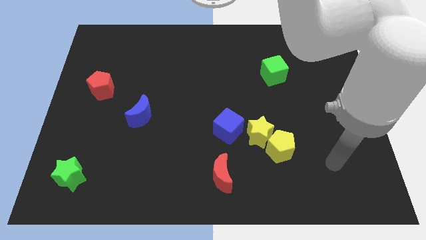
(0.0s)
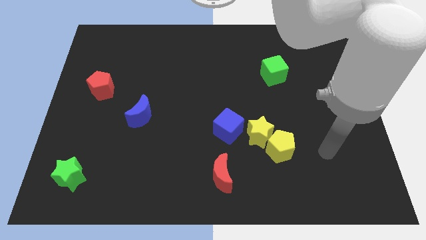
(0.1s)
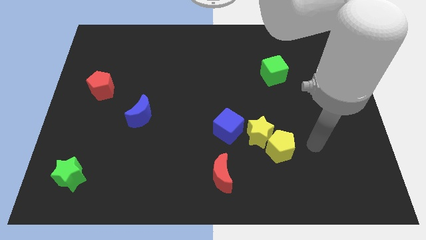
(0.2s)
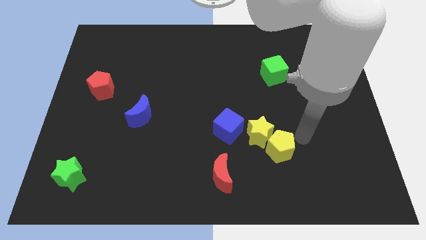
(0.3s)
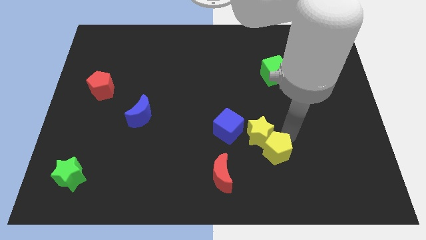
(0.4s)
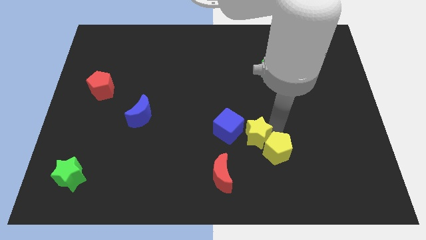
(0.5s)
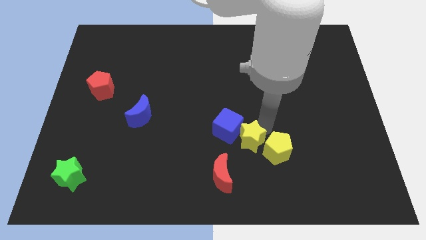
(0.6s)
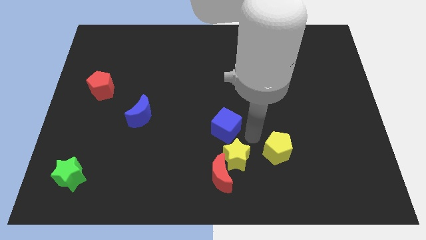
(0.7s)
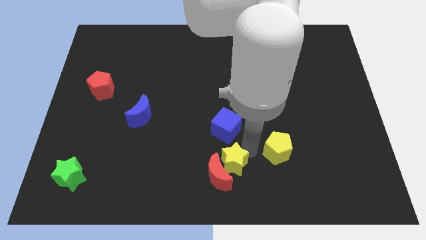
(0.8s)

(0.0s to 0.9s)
move the yellow pentagon away from the yellow star

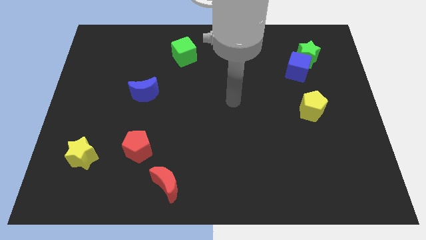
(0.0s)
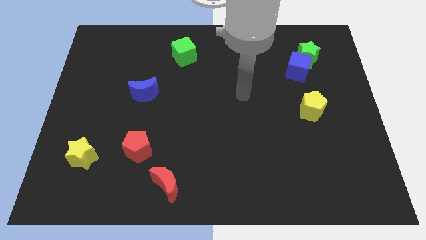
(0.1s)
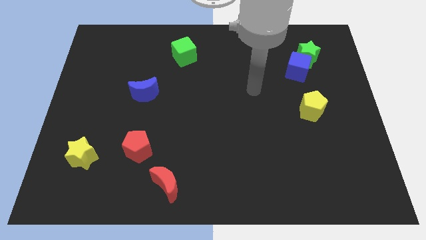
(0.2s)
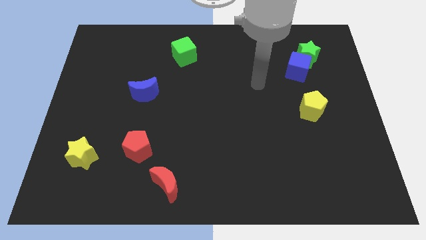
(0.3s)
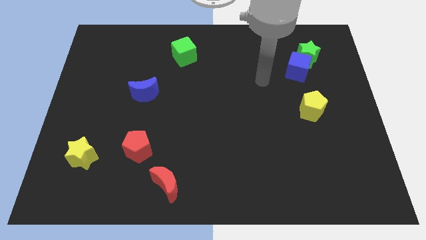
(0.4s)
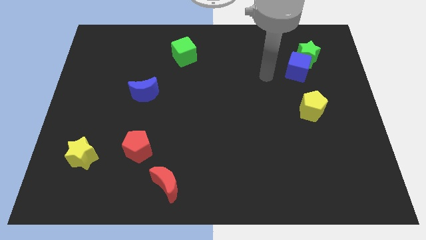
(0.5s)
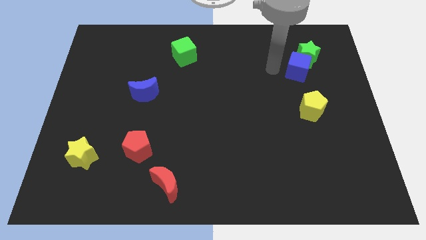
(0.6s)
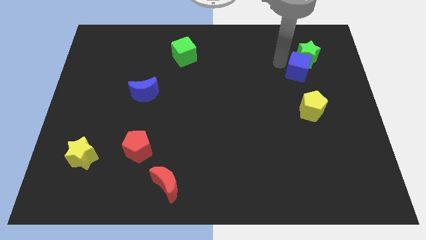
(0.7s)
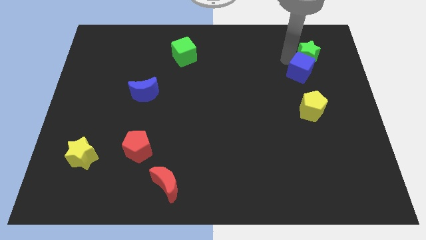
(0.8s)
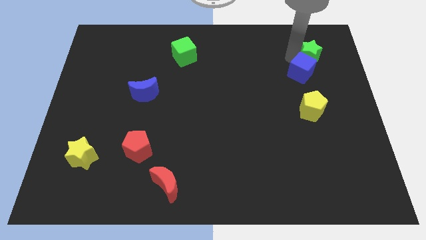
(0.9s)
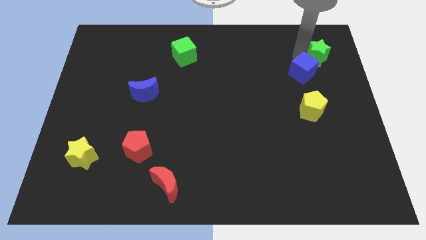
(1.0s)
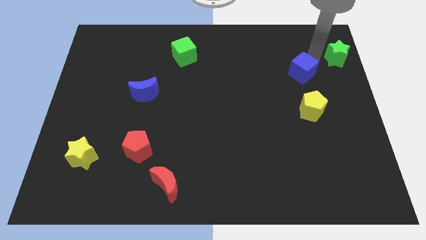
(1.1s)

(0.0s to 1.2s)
pull the blue cube apart from the green star

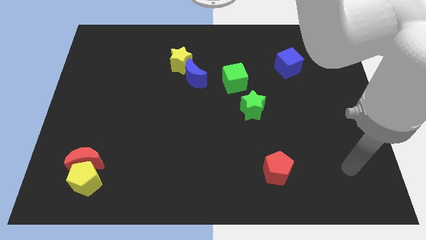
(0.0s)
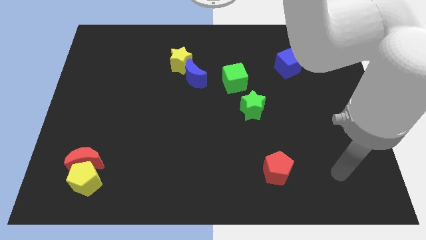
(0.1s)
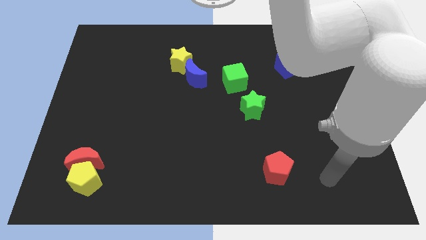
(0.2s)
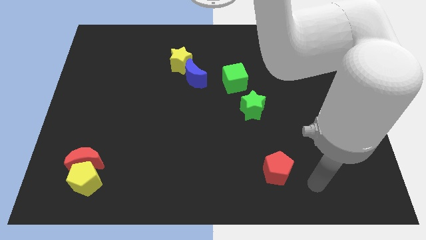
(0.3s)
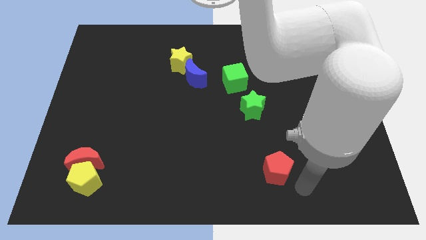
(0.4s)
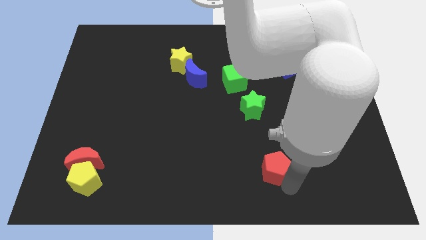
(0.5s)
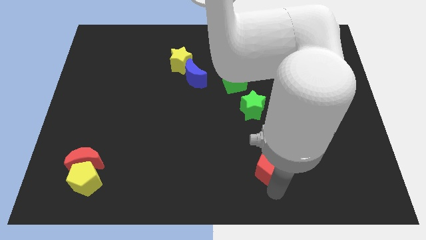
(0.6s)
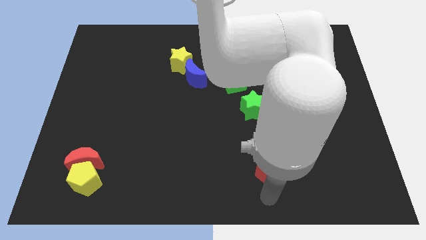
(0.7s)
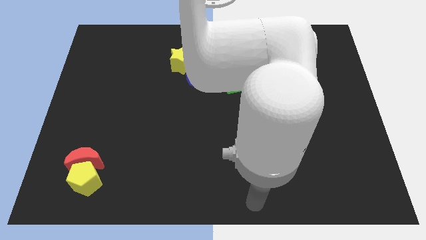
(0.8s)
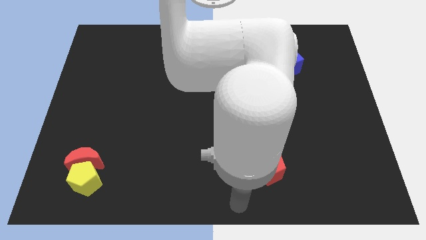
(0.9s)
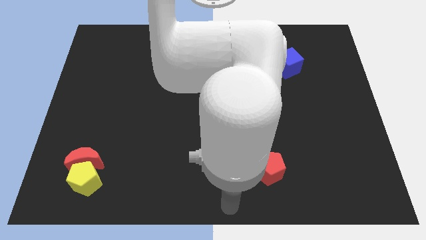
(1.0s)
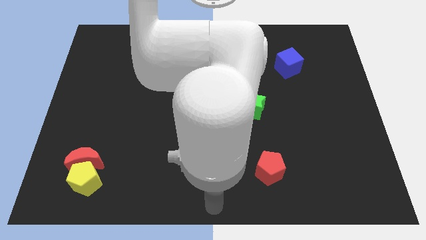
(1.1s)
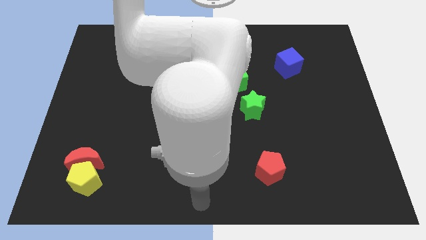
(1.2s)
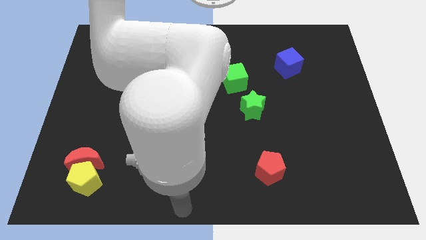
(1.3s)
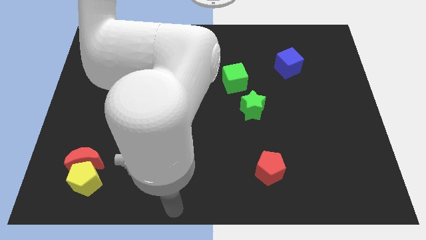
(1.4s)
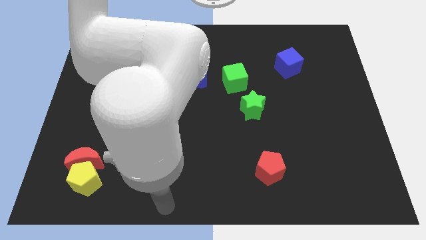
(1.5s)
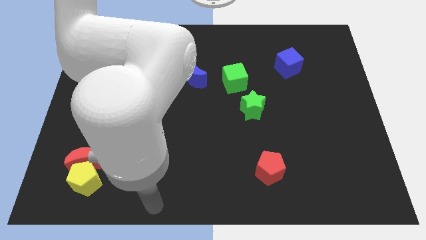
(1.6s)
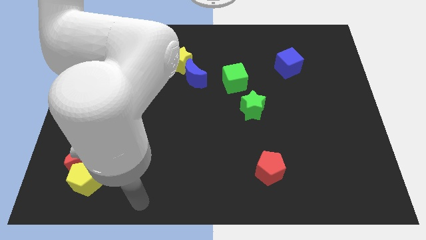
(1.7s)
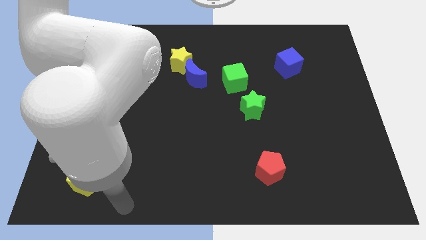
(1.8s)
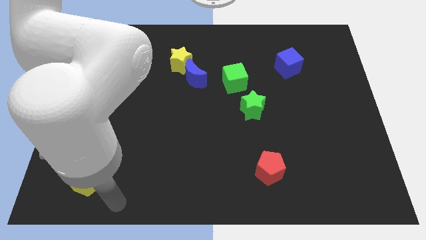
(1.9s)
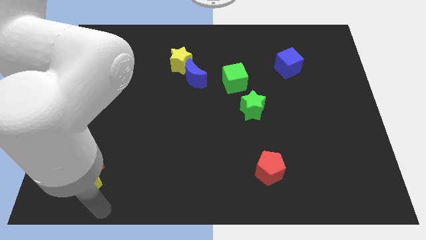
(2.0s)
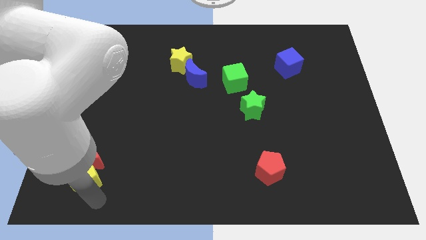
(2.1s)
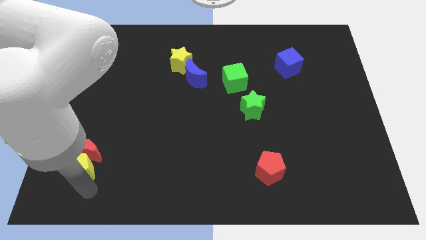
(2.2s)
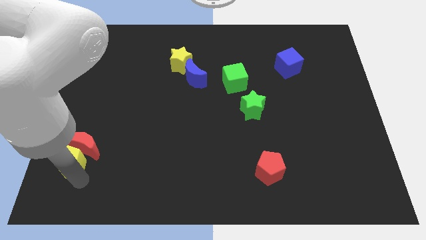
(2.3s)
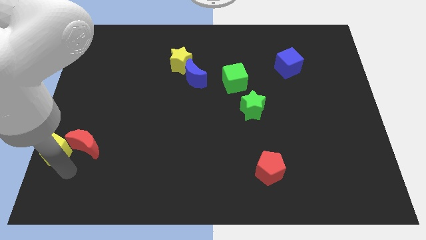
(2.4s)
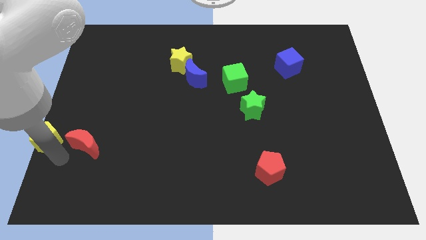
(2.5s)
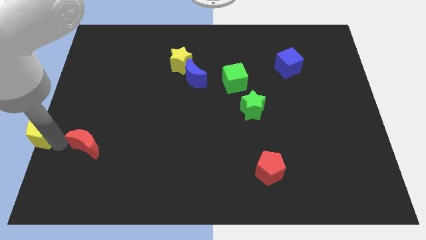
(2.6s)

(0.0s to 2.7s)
pull the red moon apart from the yellow pentagon

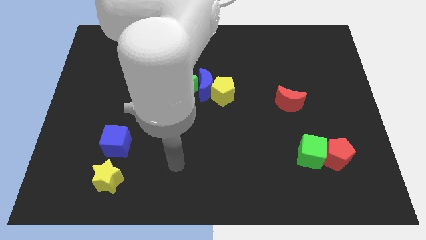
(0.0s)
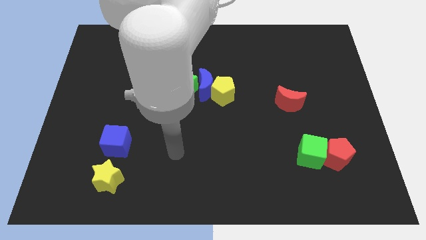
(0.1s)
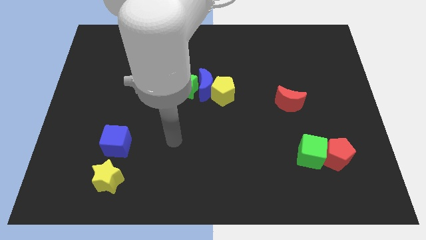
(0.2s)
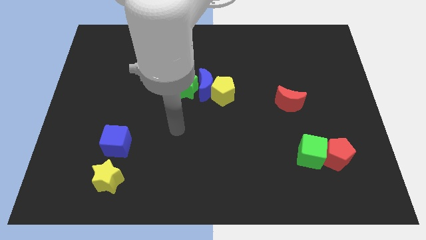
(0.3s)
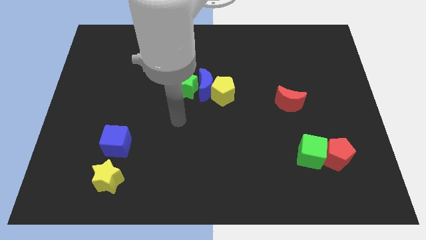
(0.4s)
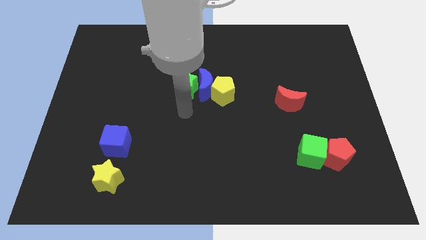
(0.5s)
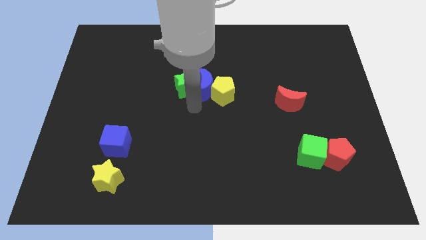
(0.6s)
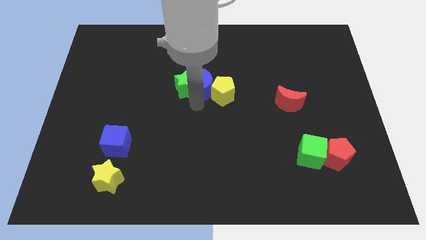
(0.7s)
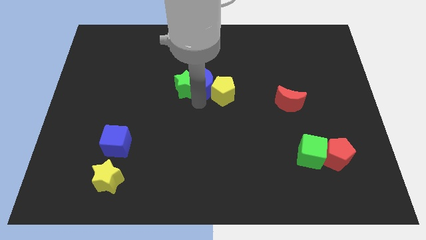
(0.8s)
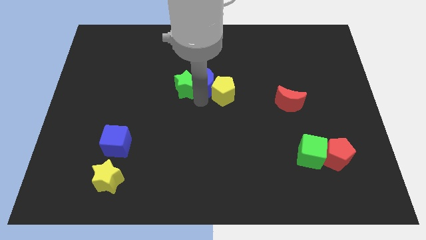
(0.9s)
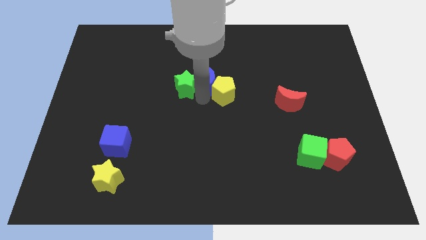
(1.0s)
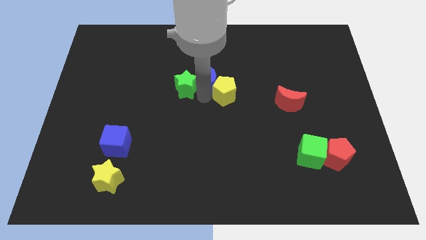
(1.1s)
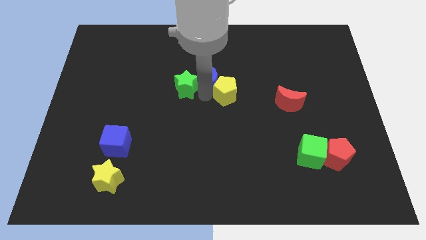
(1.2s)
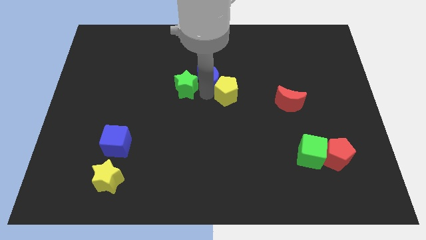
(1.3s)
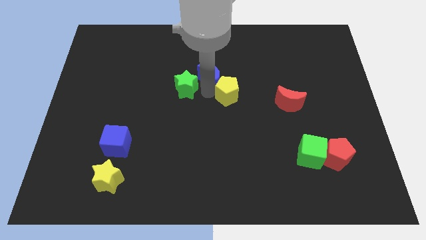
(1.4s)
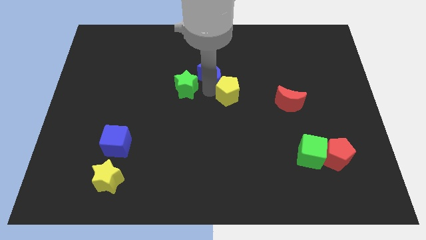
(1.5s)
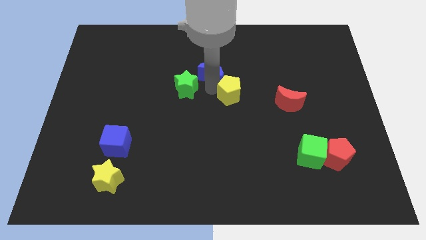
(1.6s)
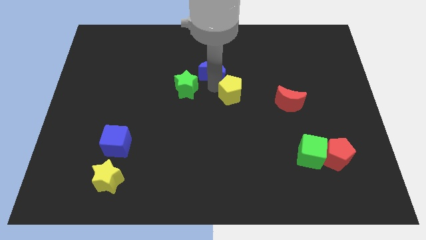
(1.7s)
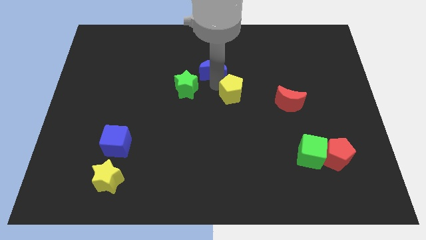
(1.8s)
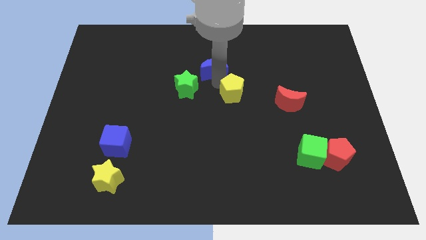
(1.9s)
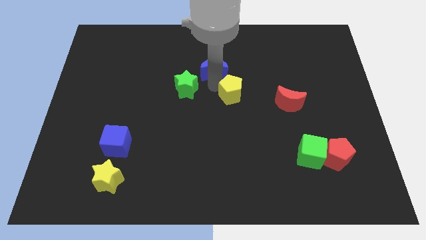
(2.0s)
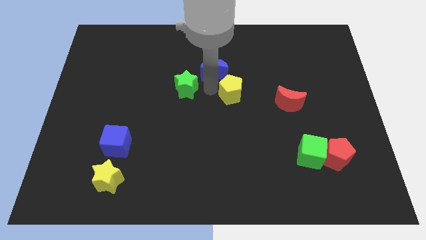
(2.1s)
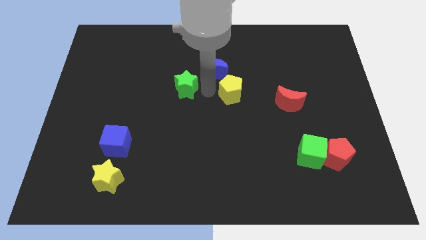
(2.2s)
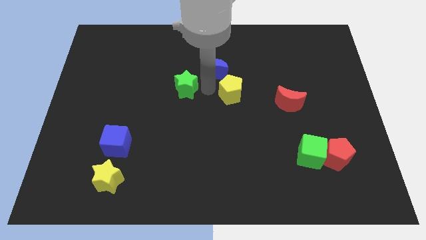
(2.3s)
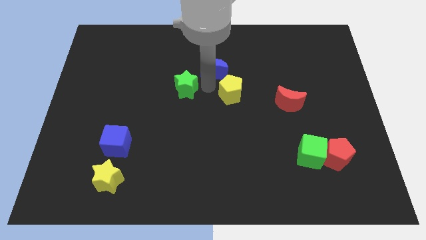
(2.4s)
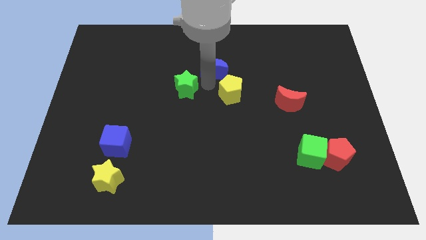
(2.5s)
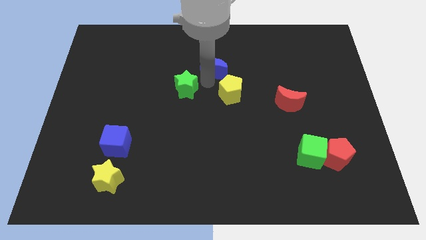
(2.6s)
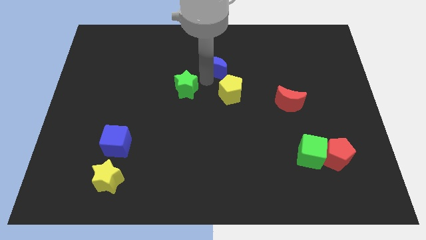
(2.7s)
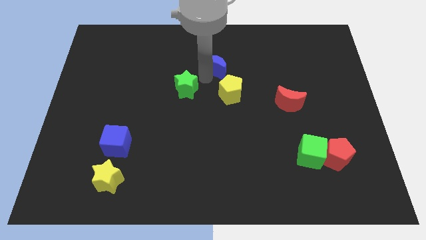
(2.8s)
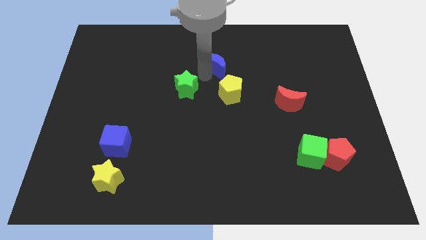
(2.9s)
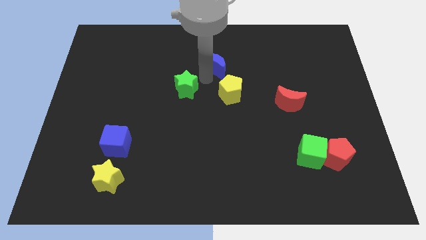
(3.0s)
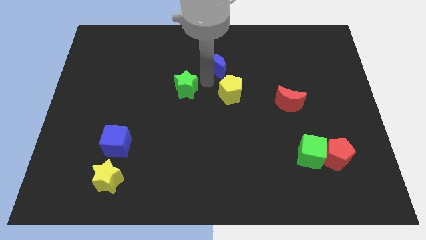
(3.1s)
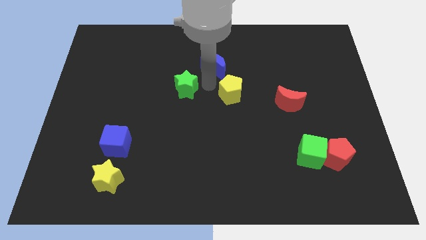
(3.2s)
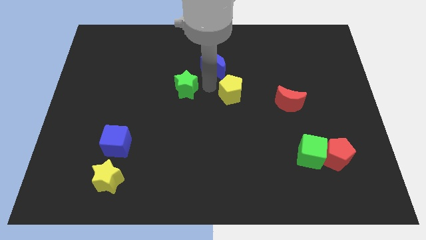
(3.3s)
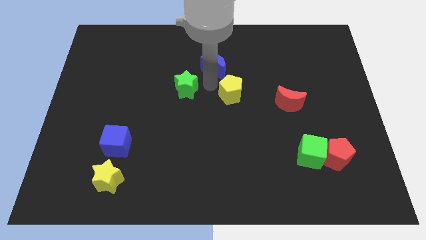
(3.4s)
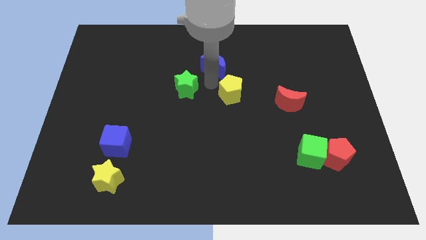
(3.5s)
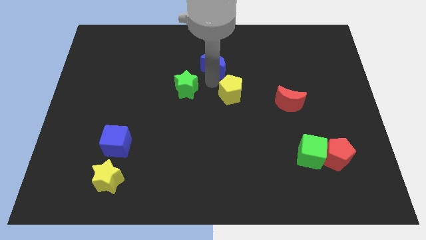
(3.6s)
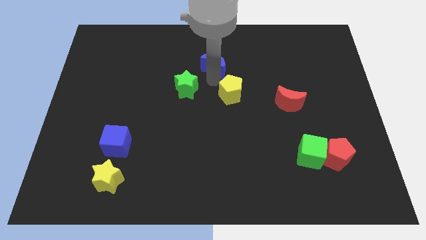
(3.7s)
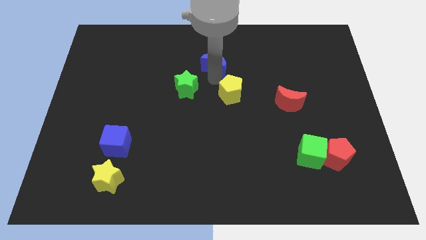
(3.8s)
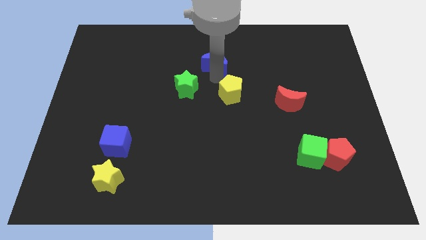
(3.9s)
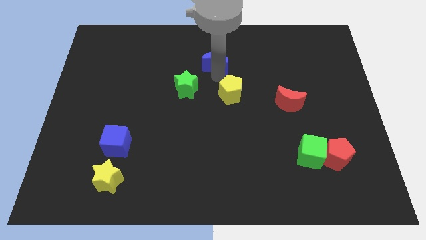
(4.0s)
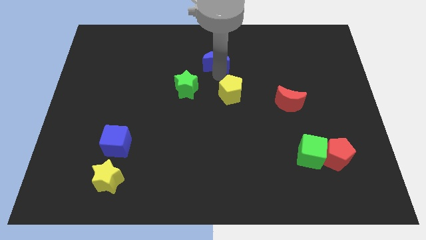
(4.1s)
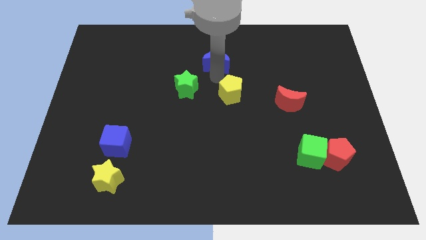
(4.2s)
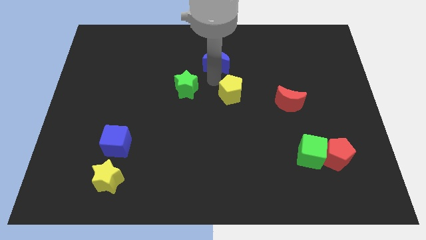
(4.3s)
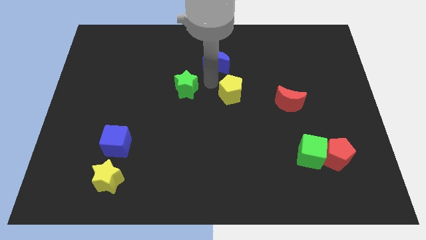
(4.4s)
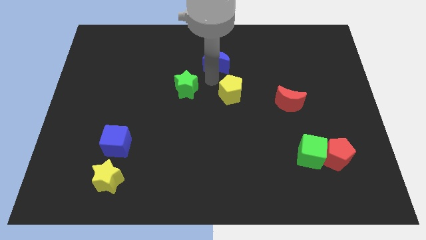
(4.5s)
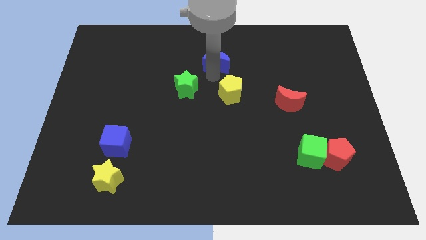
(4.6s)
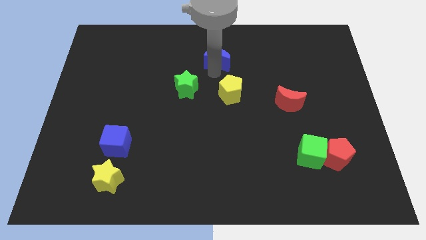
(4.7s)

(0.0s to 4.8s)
separate the blue moon from the yellow pentagon and green star
